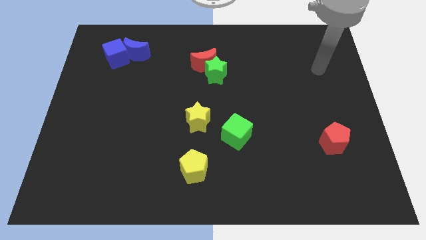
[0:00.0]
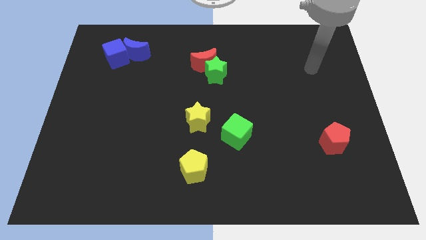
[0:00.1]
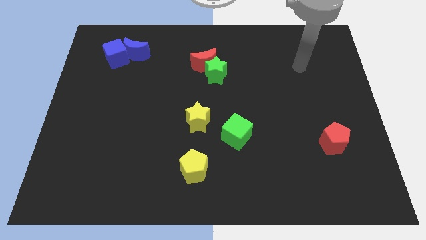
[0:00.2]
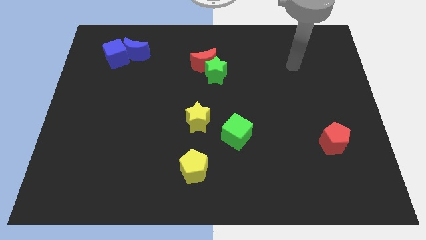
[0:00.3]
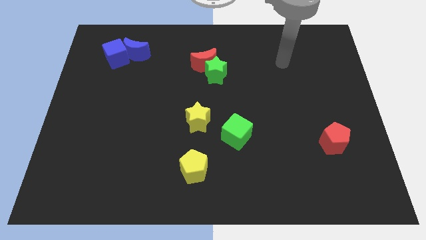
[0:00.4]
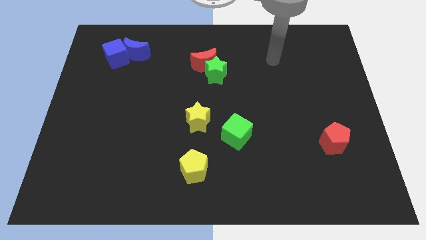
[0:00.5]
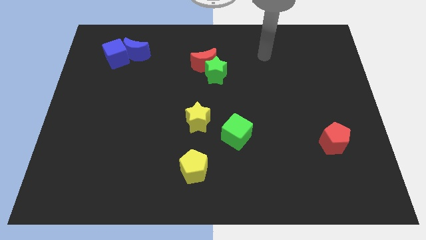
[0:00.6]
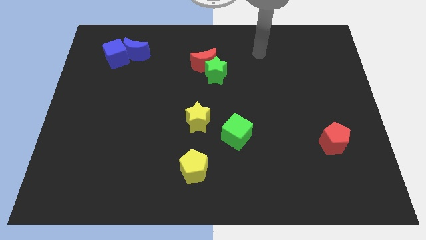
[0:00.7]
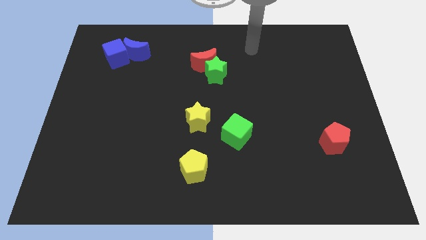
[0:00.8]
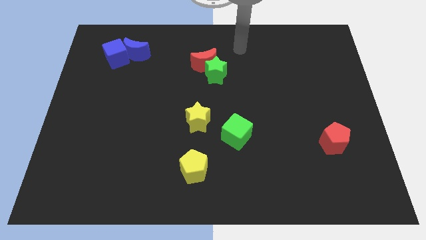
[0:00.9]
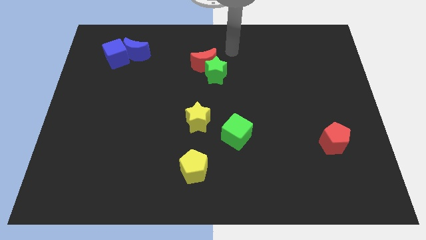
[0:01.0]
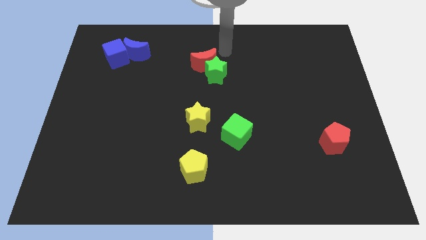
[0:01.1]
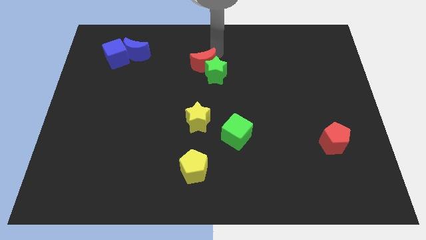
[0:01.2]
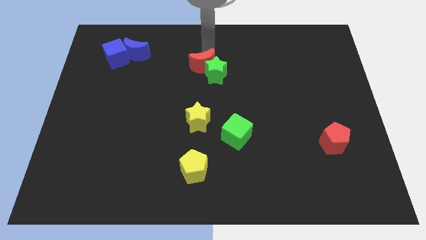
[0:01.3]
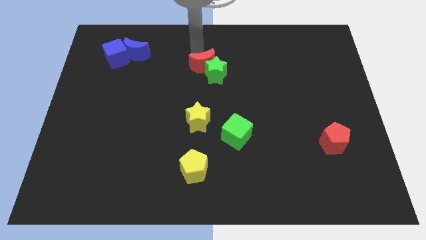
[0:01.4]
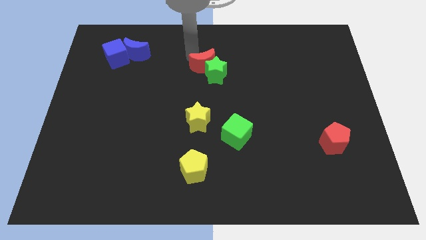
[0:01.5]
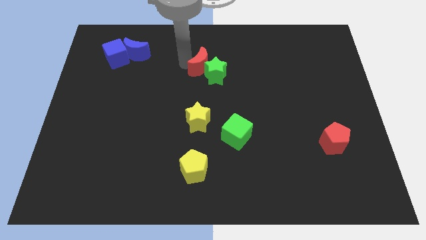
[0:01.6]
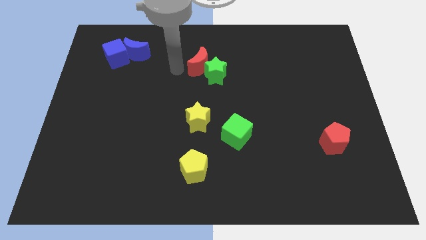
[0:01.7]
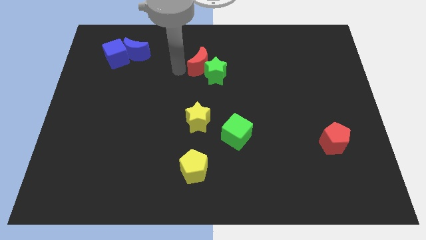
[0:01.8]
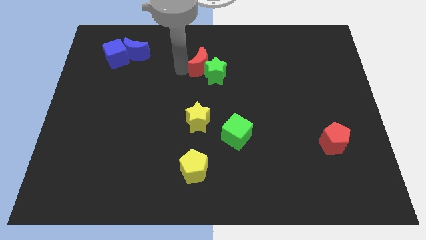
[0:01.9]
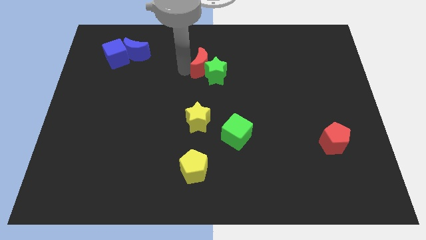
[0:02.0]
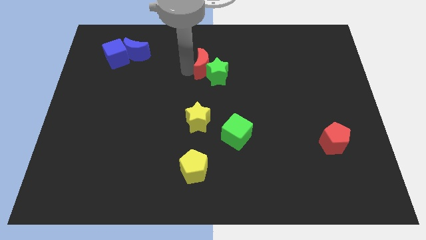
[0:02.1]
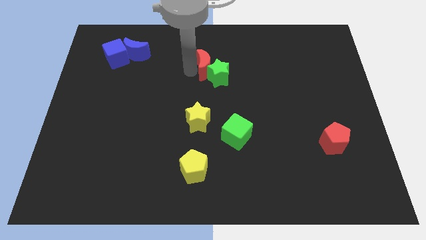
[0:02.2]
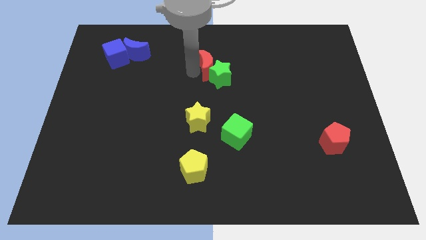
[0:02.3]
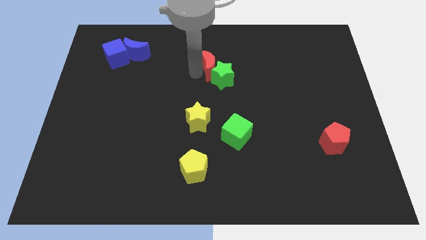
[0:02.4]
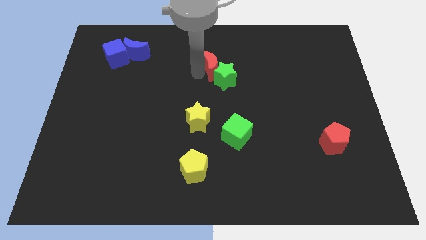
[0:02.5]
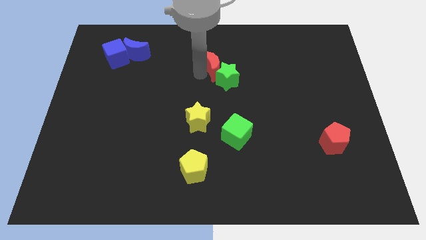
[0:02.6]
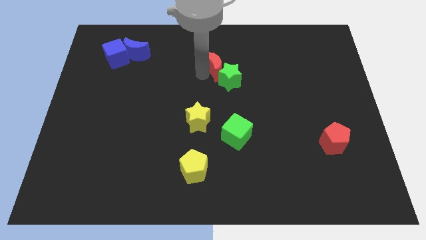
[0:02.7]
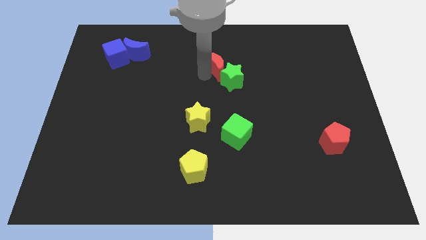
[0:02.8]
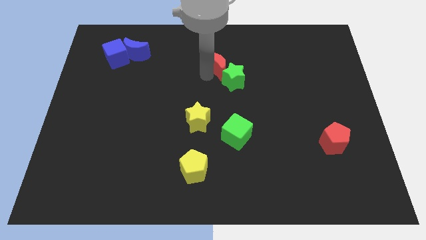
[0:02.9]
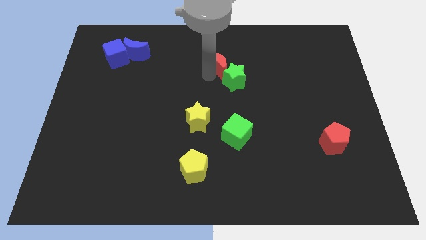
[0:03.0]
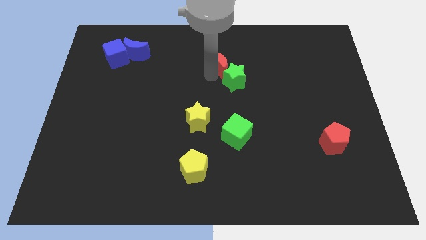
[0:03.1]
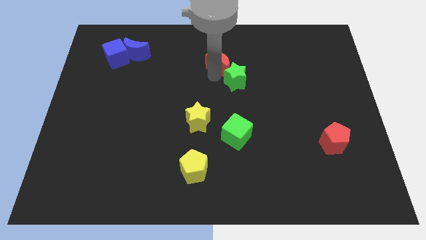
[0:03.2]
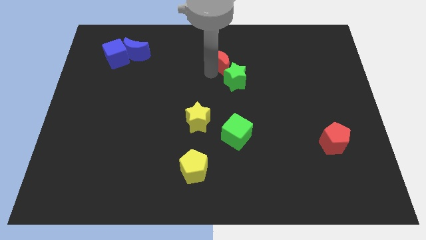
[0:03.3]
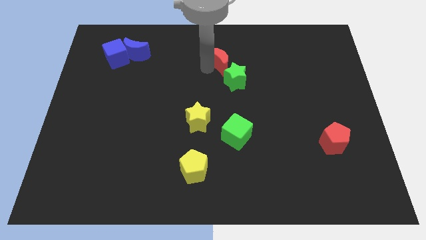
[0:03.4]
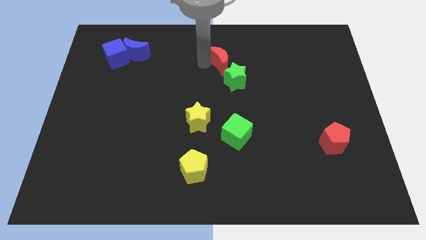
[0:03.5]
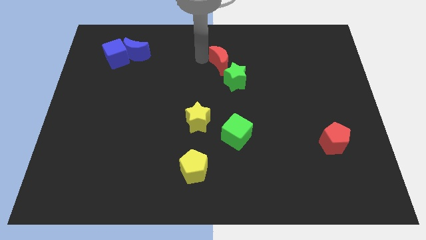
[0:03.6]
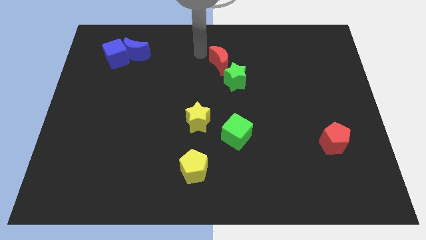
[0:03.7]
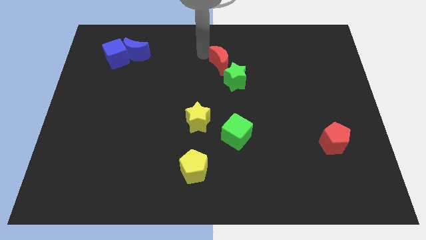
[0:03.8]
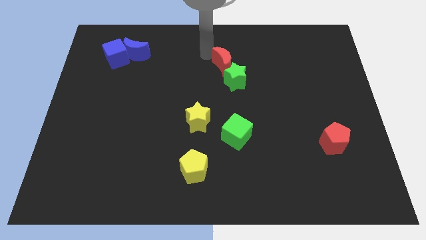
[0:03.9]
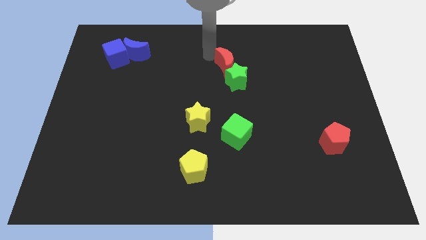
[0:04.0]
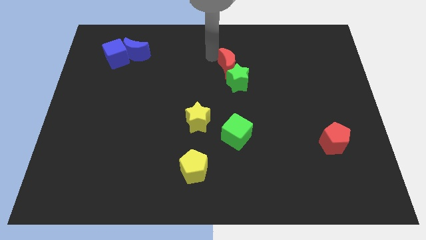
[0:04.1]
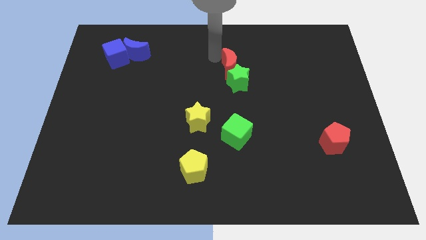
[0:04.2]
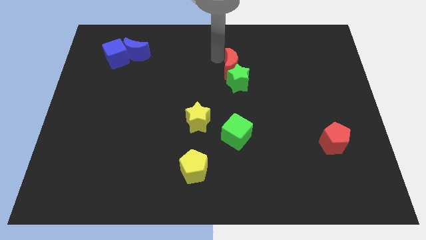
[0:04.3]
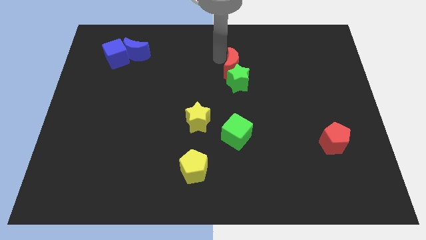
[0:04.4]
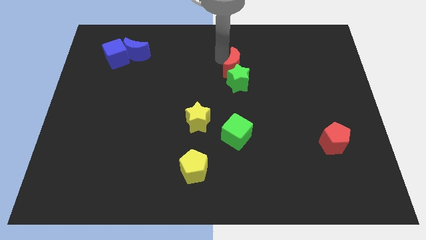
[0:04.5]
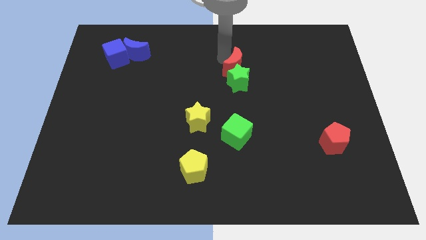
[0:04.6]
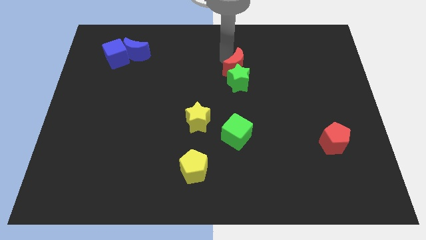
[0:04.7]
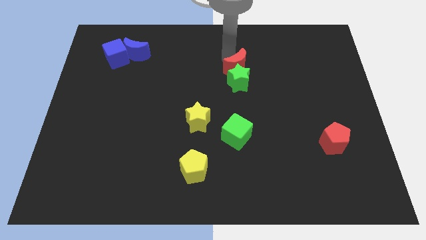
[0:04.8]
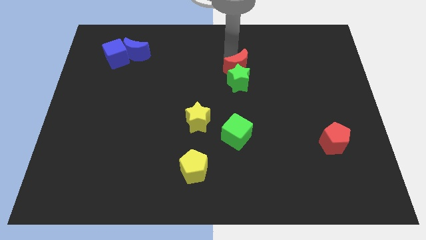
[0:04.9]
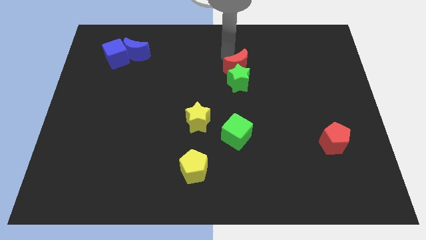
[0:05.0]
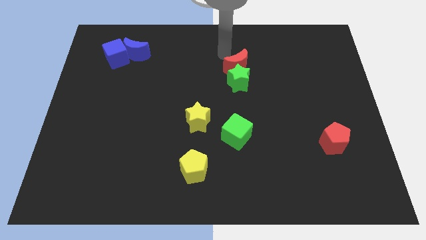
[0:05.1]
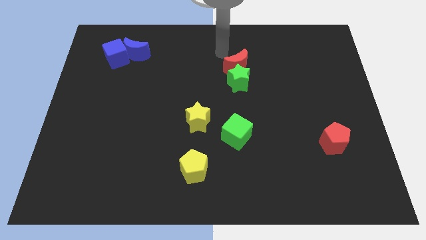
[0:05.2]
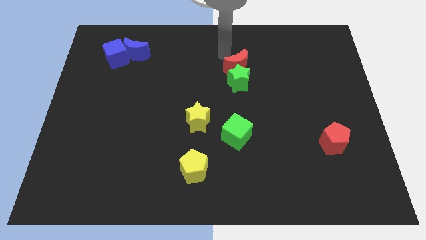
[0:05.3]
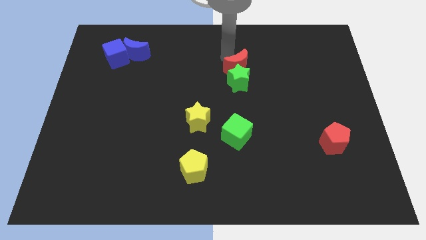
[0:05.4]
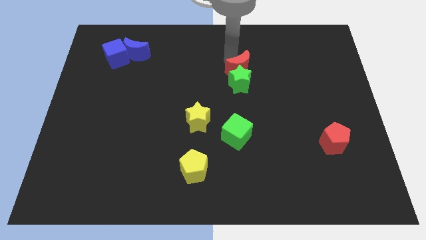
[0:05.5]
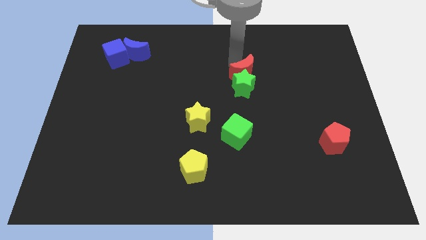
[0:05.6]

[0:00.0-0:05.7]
slide the red moon downwards and right a bit

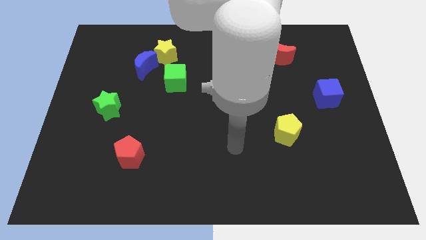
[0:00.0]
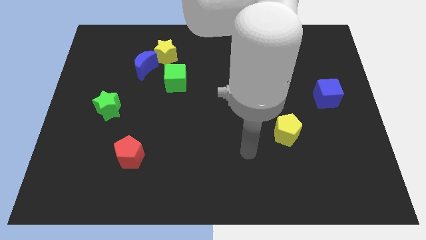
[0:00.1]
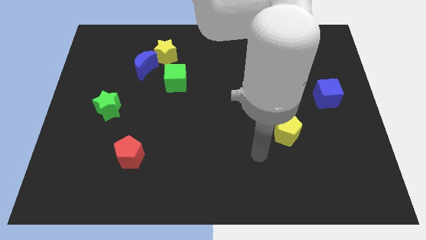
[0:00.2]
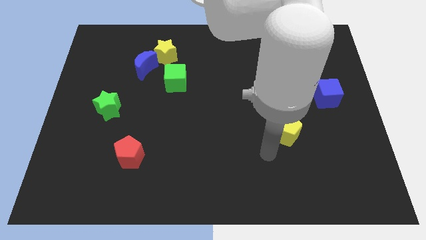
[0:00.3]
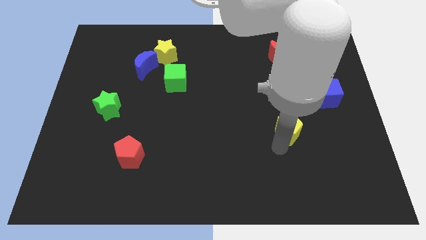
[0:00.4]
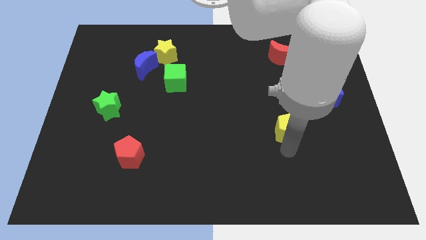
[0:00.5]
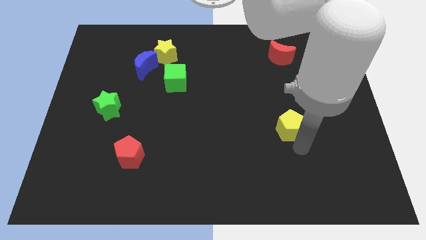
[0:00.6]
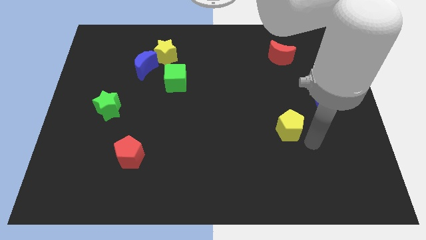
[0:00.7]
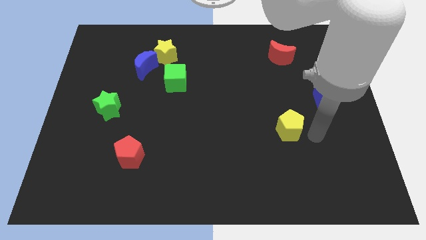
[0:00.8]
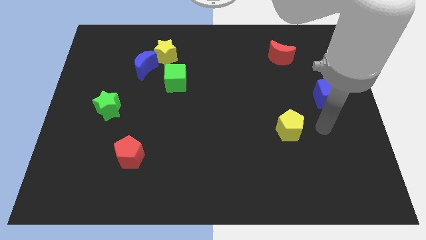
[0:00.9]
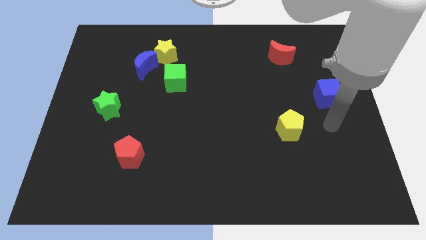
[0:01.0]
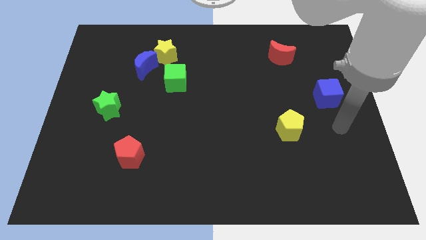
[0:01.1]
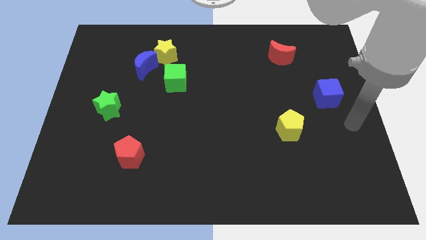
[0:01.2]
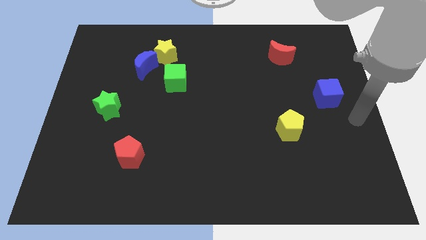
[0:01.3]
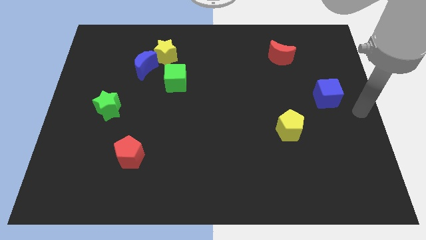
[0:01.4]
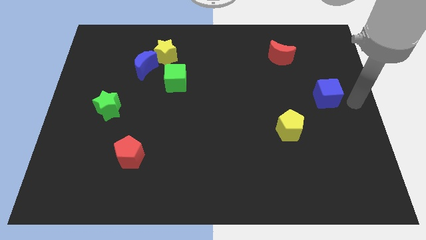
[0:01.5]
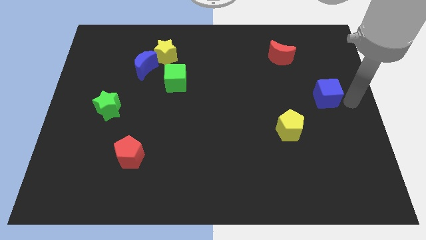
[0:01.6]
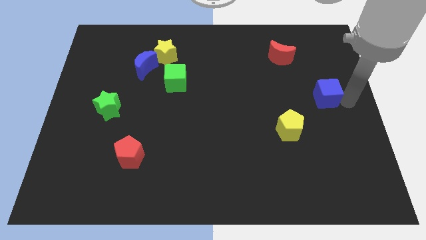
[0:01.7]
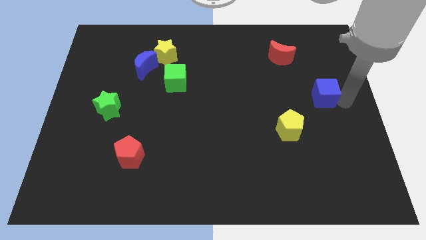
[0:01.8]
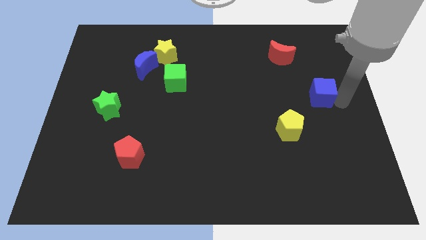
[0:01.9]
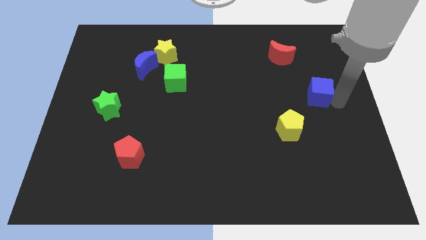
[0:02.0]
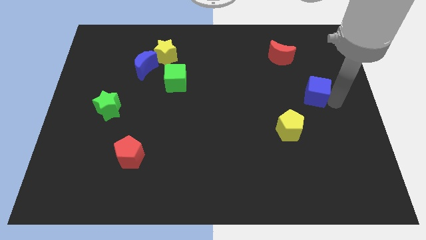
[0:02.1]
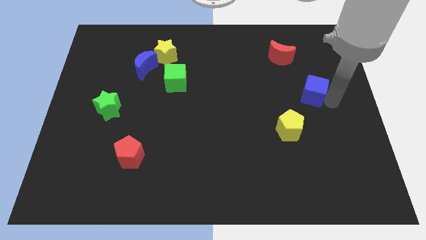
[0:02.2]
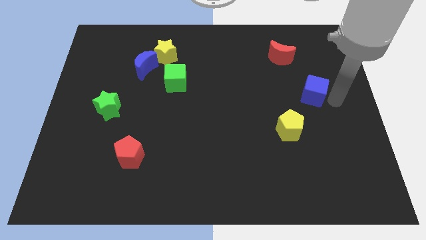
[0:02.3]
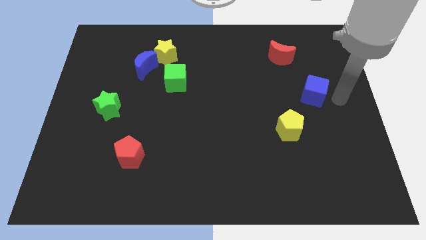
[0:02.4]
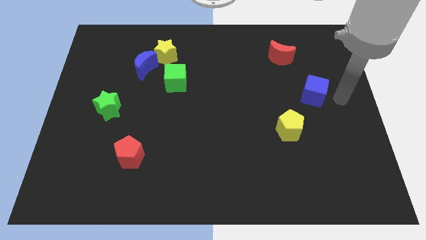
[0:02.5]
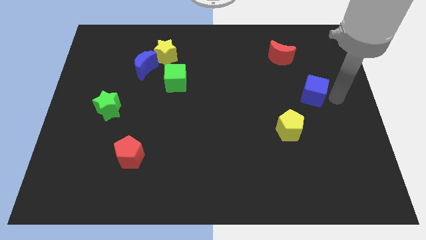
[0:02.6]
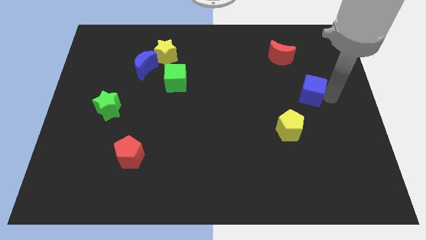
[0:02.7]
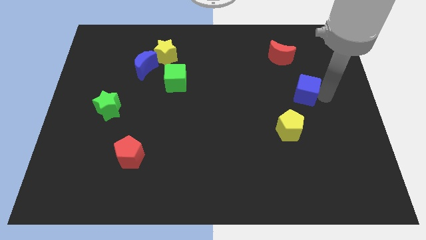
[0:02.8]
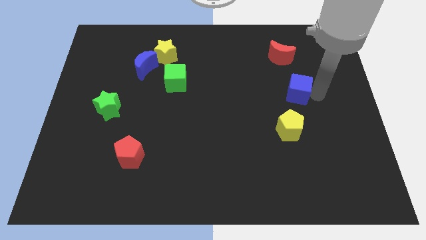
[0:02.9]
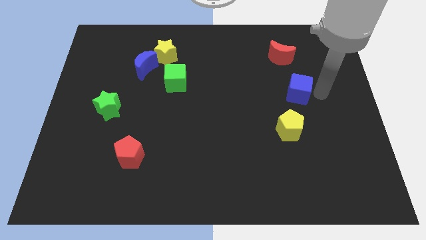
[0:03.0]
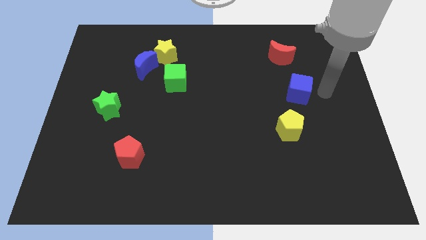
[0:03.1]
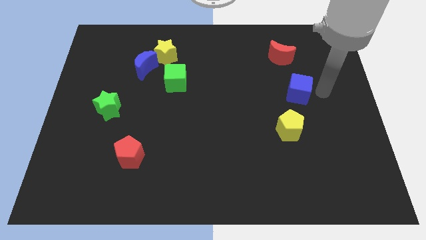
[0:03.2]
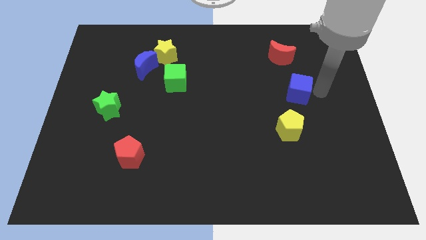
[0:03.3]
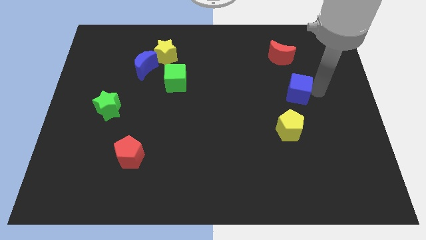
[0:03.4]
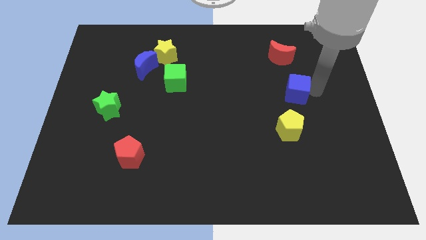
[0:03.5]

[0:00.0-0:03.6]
move the blue cube left a bit
